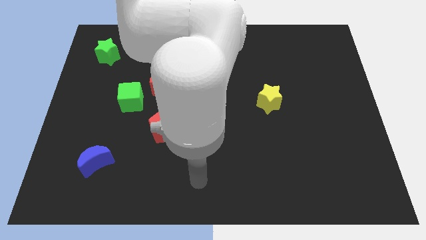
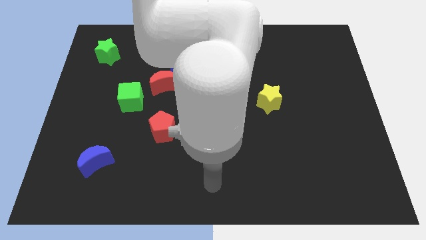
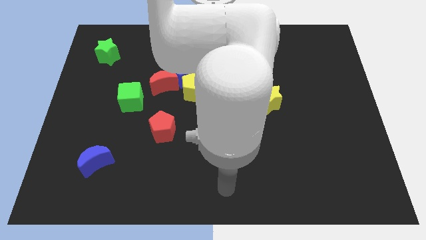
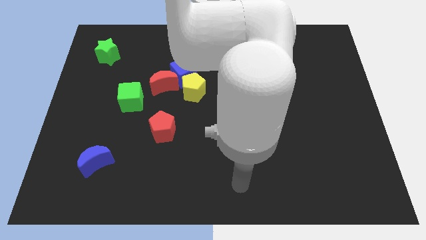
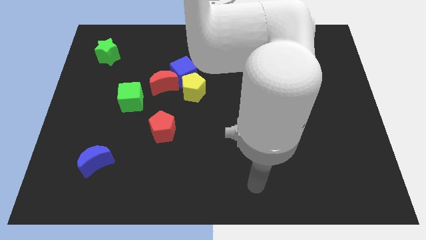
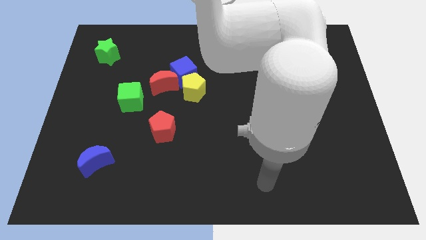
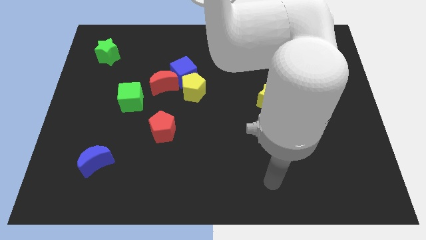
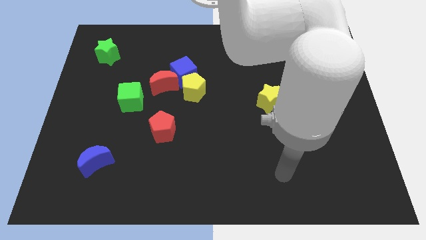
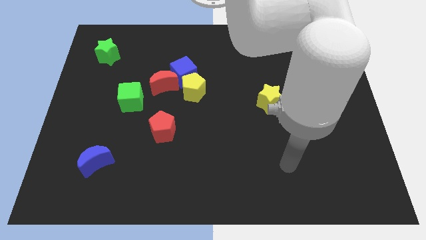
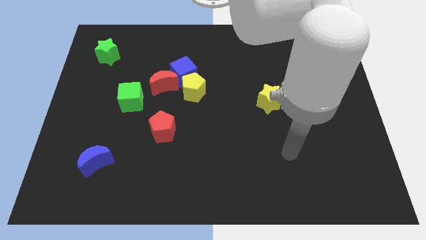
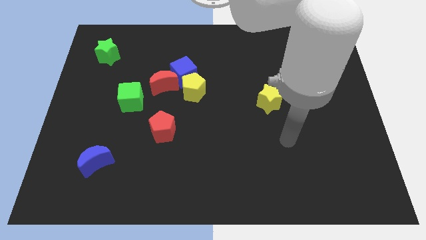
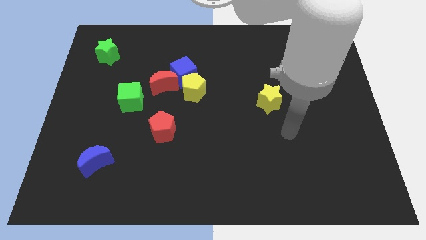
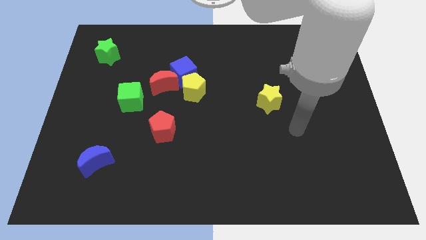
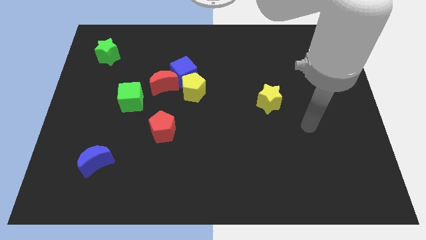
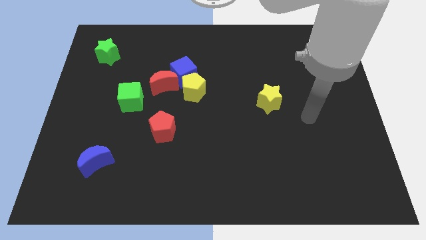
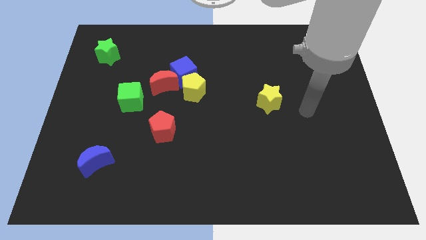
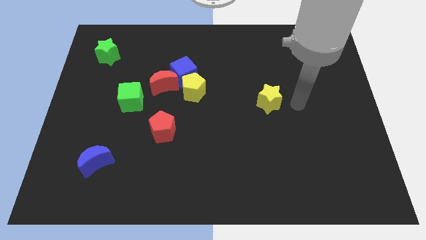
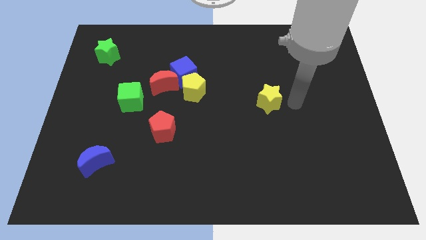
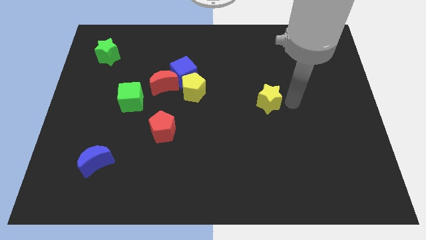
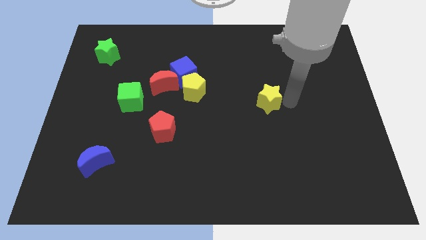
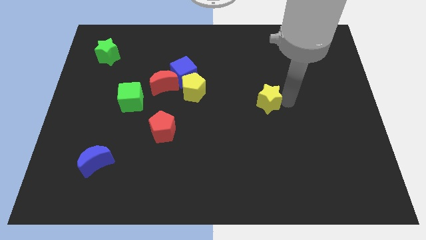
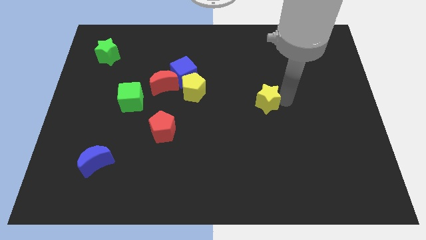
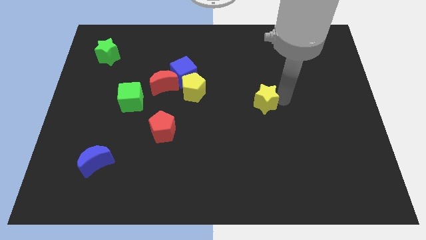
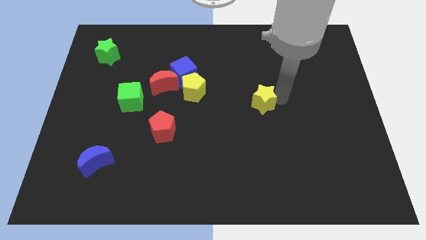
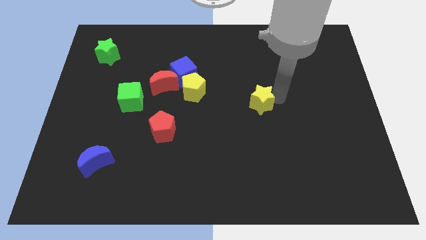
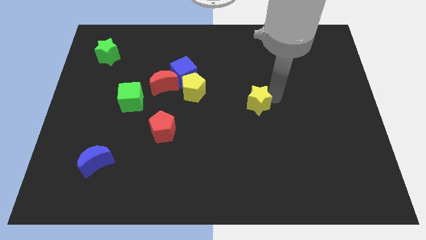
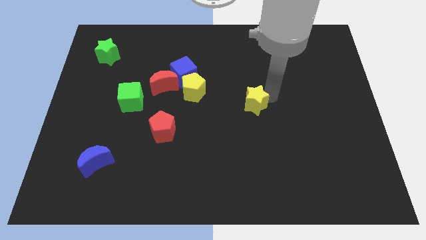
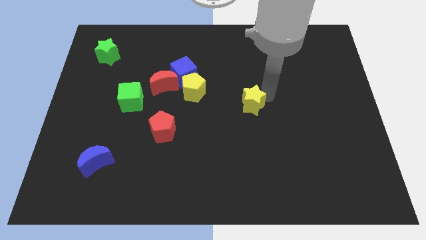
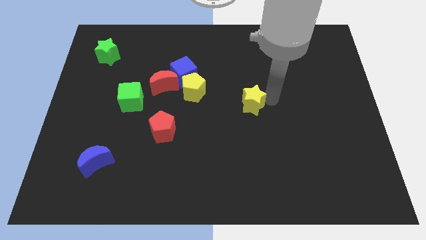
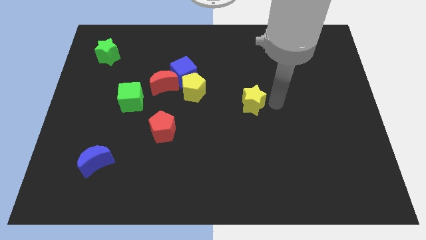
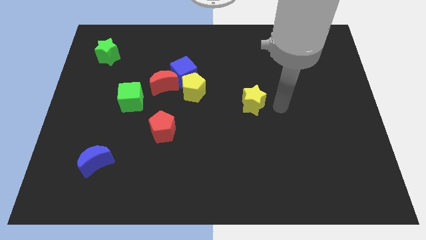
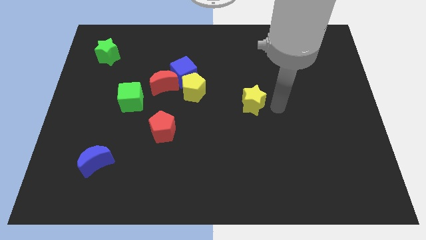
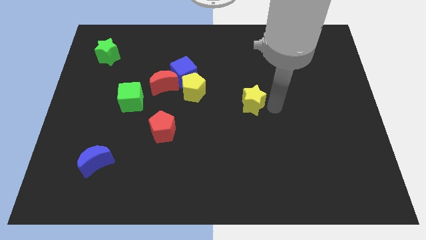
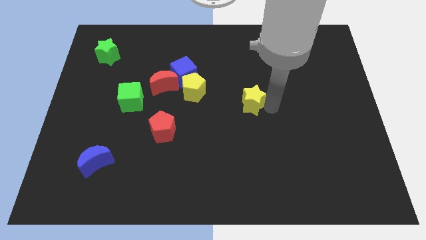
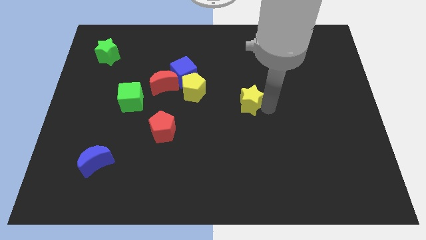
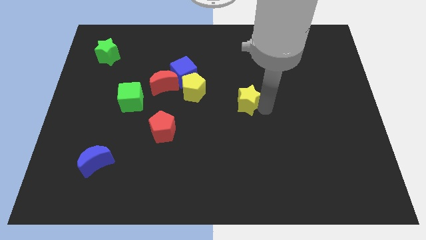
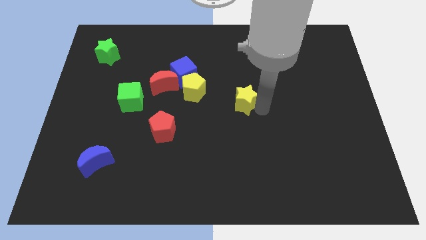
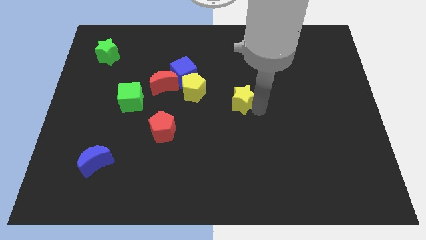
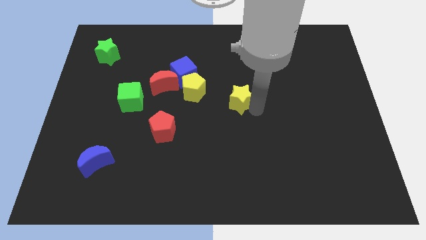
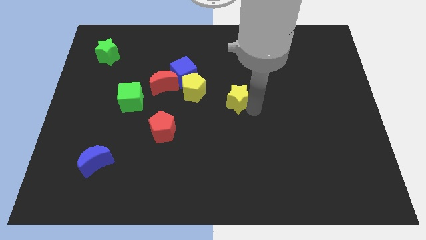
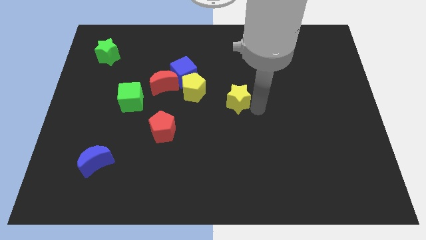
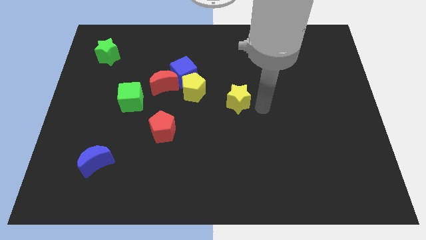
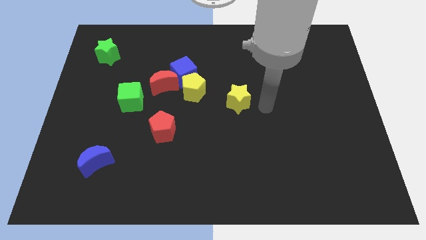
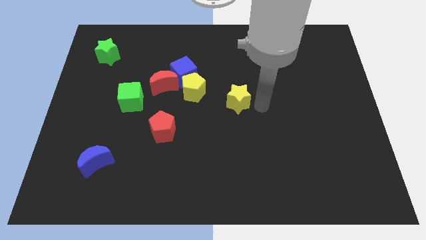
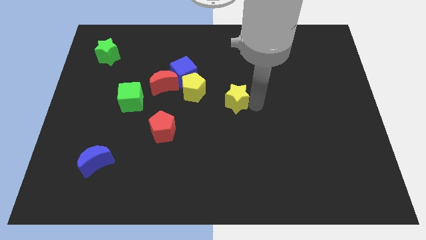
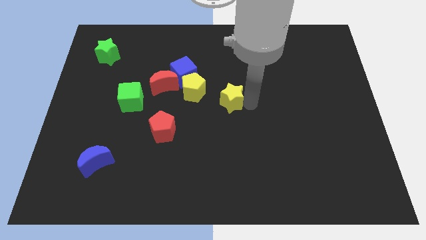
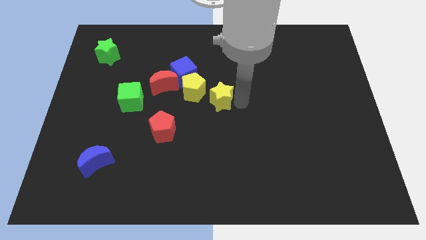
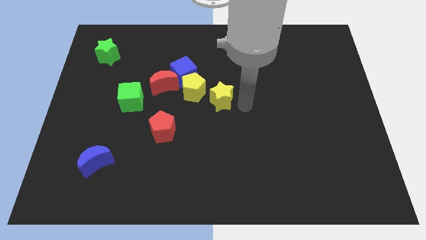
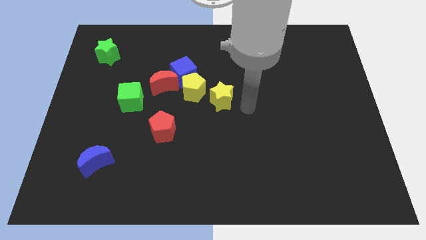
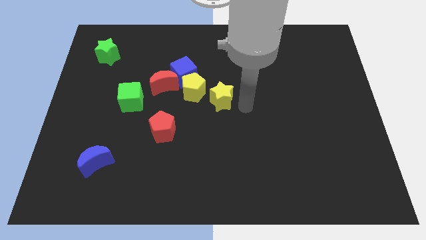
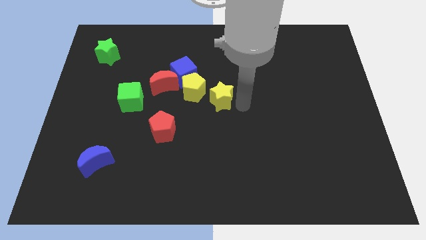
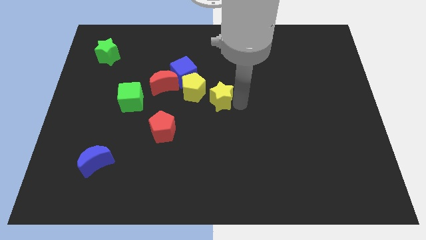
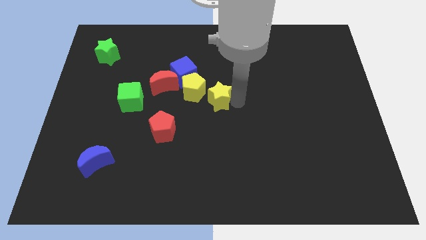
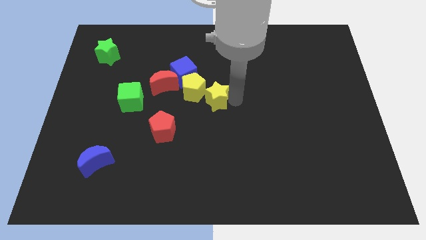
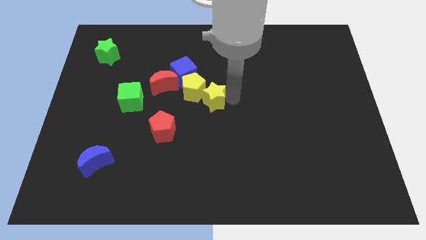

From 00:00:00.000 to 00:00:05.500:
put the yellow star to the yellow pentagon

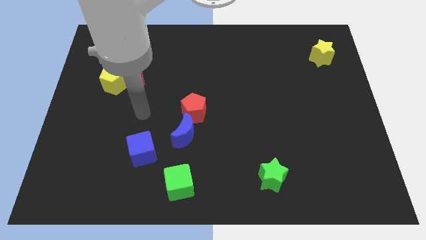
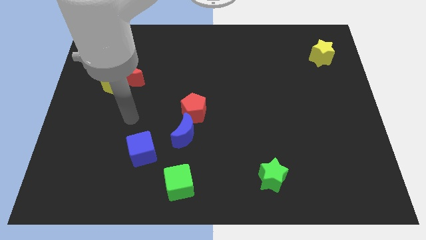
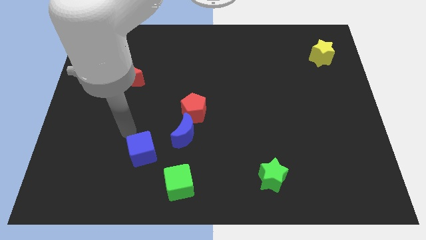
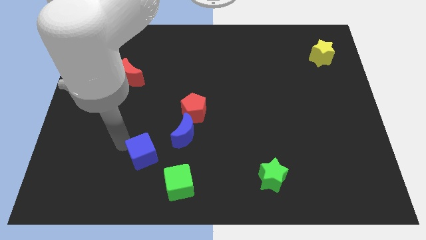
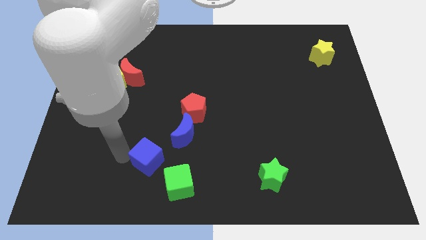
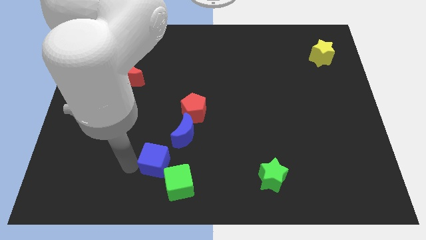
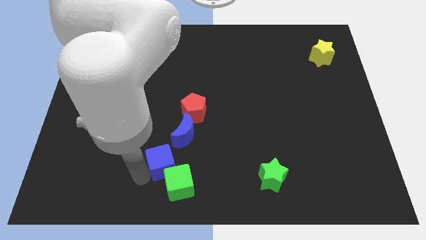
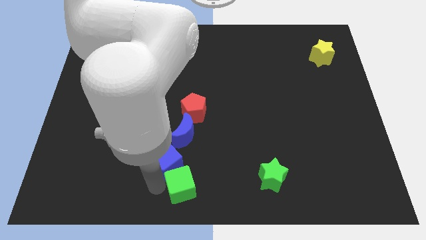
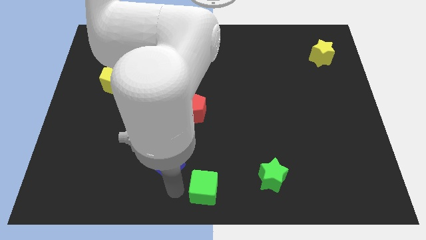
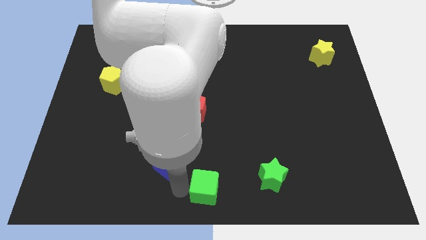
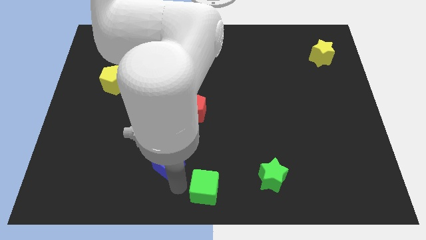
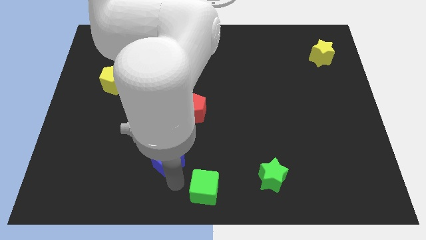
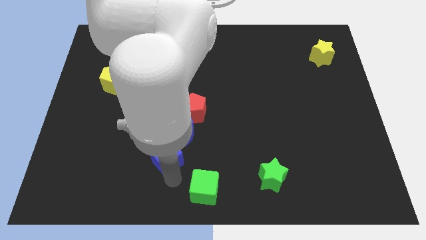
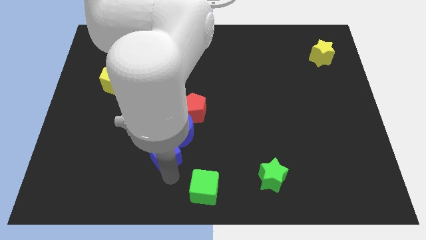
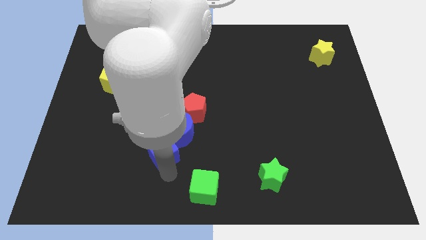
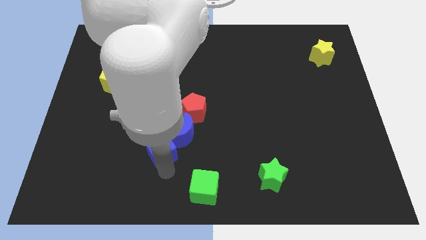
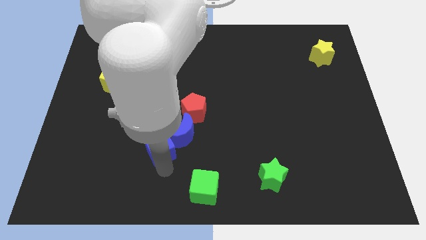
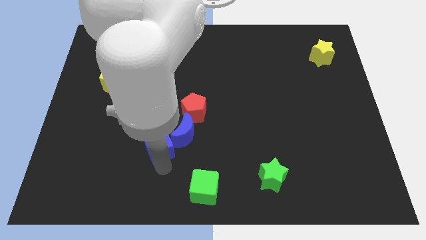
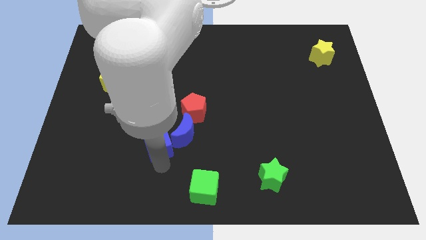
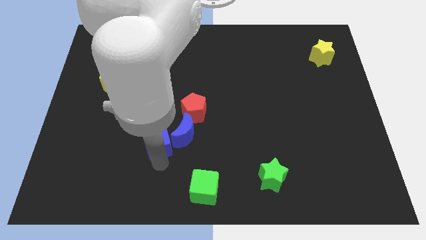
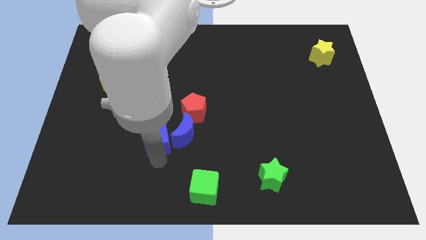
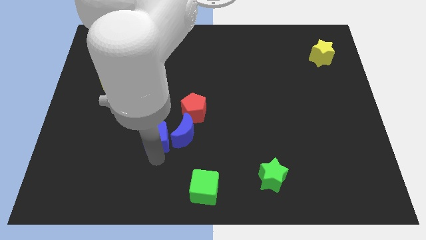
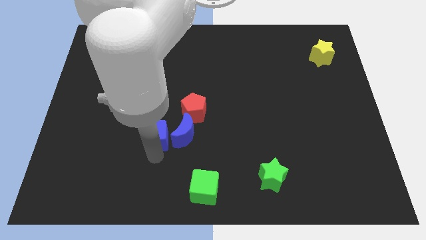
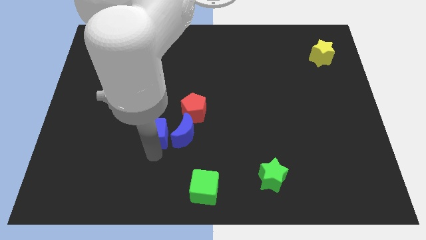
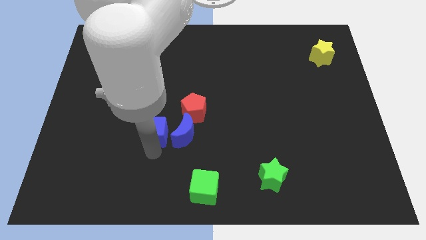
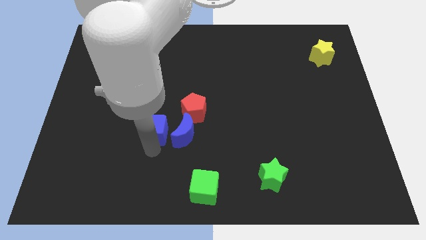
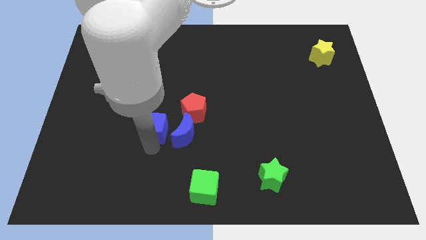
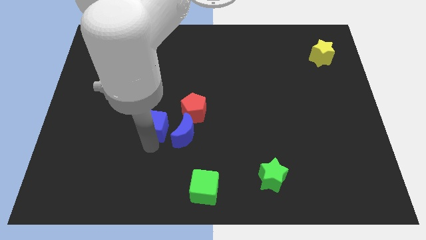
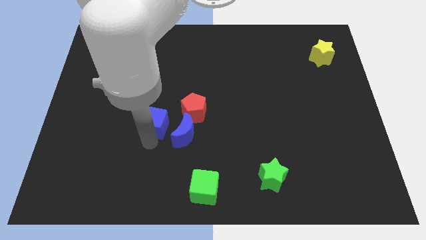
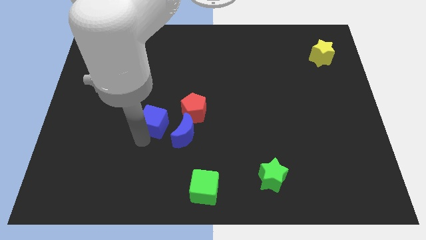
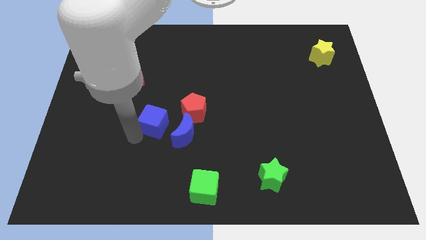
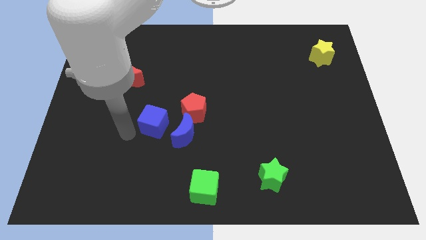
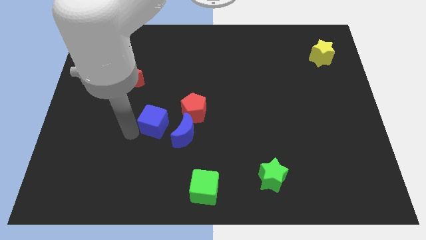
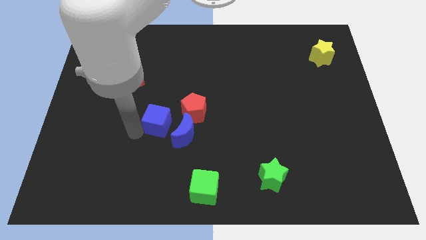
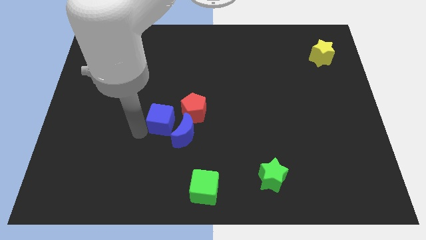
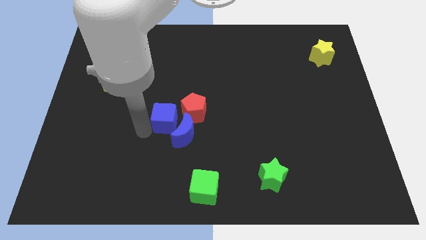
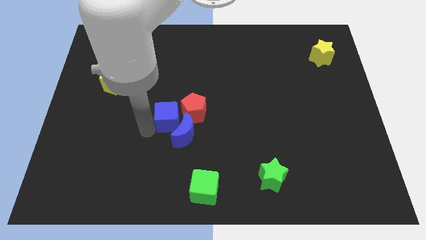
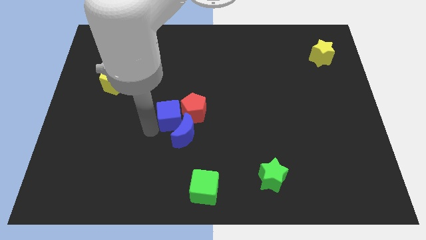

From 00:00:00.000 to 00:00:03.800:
put the blue cube towards the red pentagon
